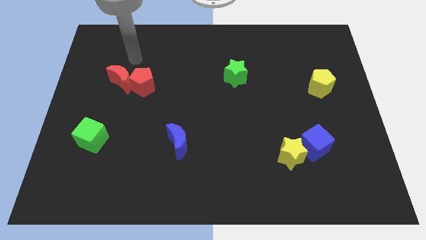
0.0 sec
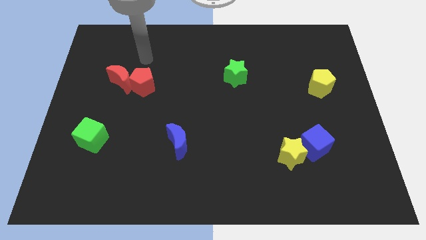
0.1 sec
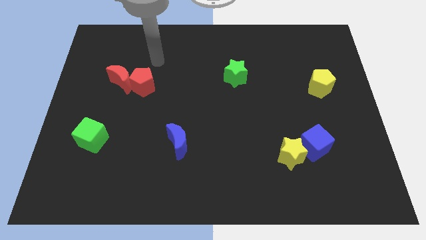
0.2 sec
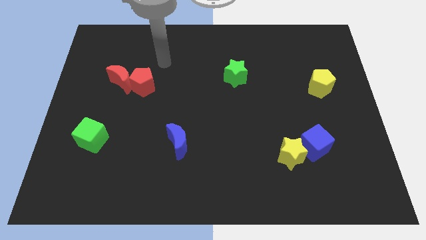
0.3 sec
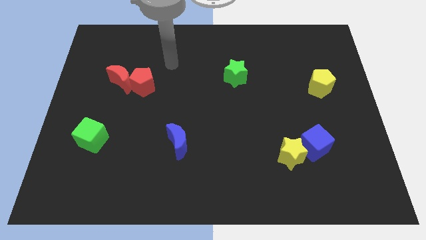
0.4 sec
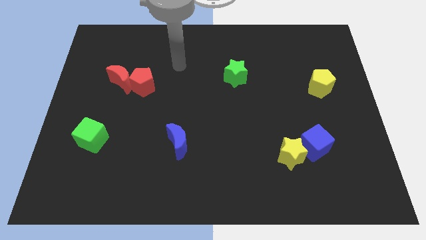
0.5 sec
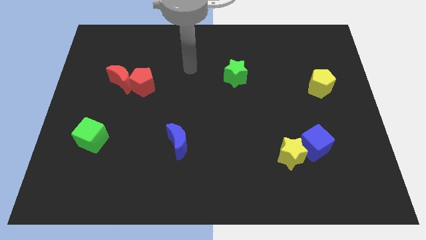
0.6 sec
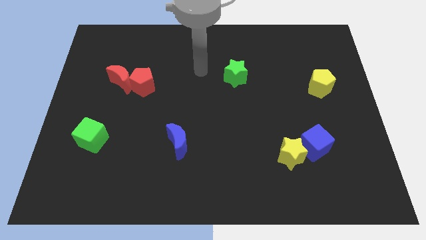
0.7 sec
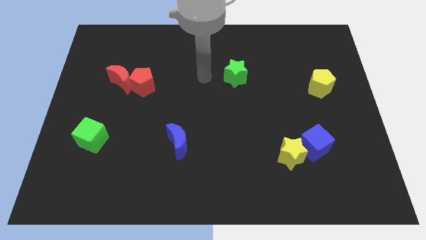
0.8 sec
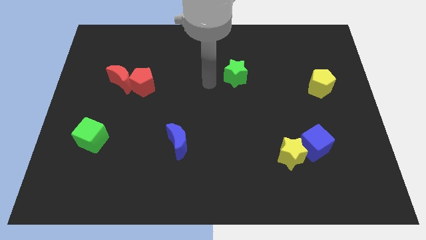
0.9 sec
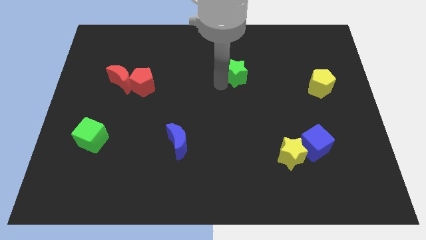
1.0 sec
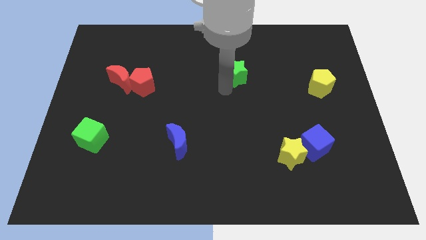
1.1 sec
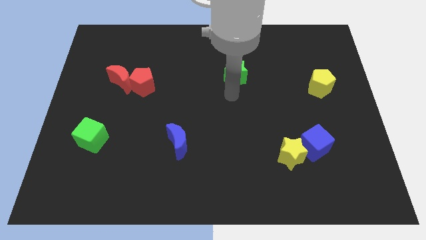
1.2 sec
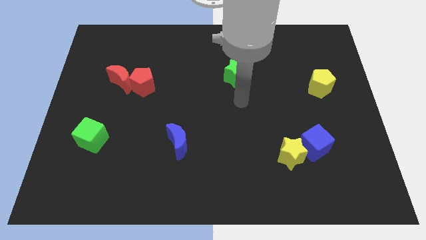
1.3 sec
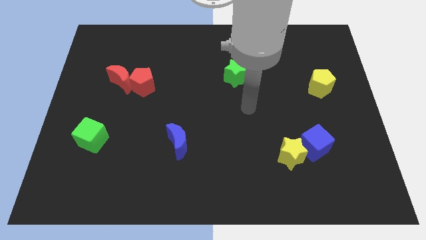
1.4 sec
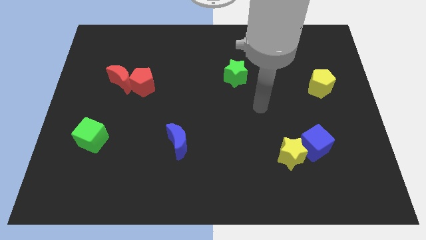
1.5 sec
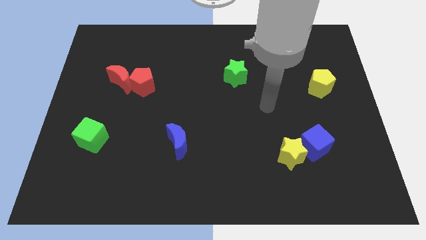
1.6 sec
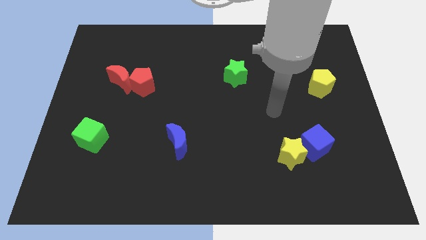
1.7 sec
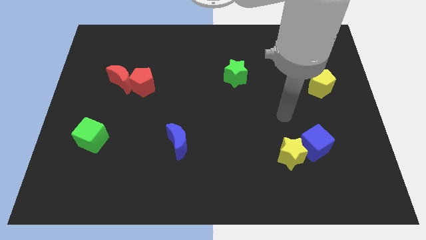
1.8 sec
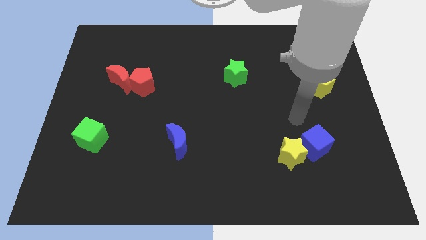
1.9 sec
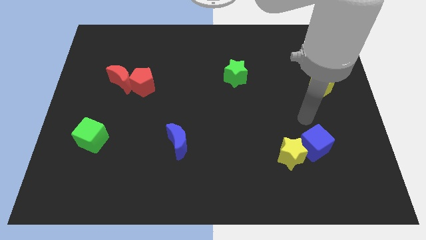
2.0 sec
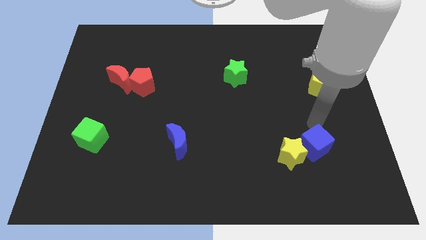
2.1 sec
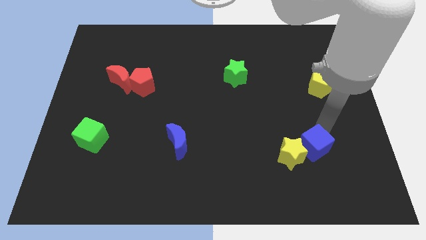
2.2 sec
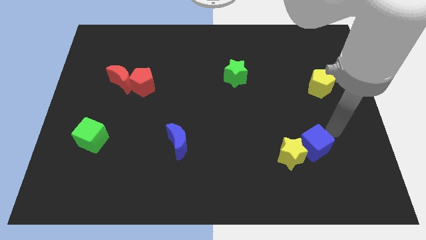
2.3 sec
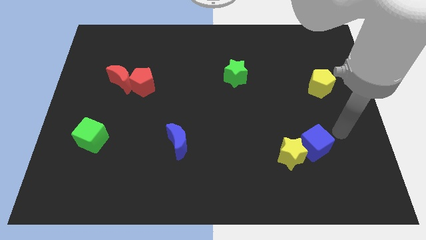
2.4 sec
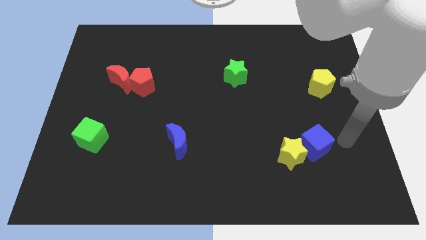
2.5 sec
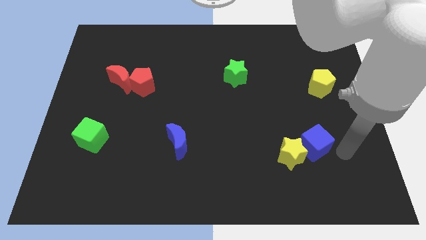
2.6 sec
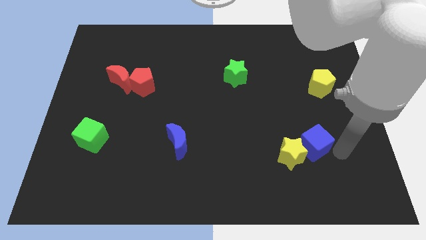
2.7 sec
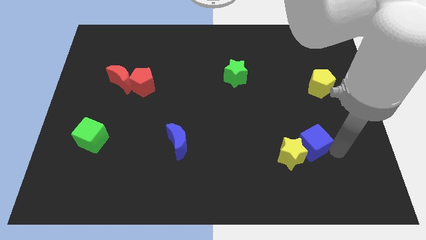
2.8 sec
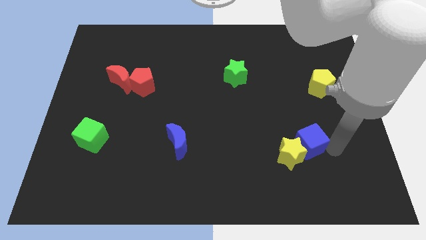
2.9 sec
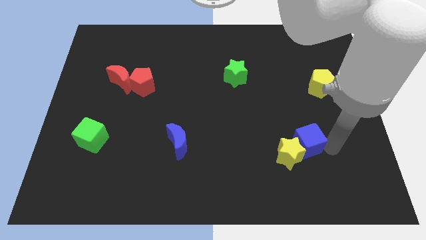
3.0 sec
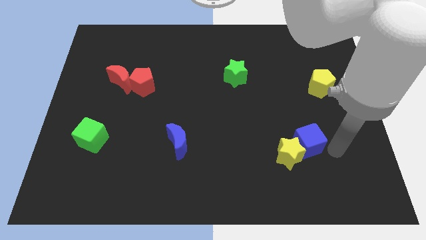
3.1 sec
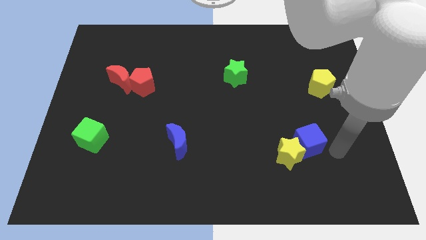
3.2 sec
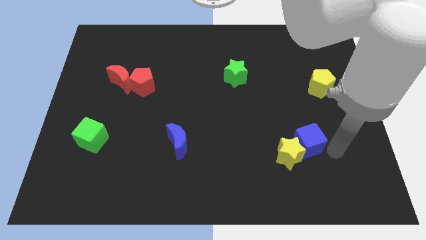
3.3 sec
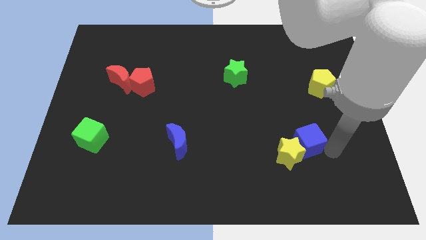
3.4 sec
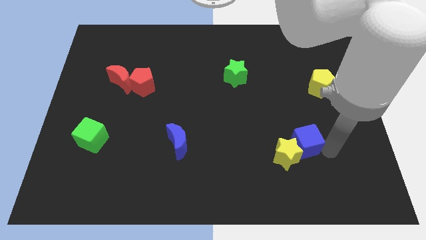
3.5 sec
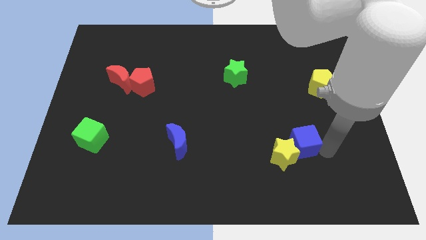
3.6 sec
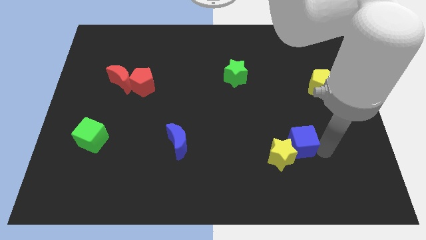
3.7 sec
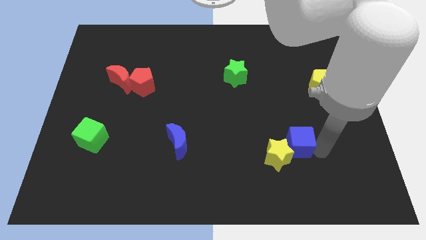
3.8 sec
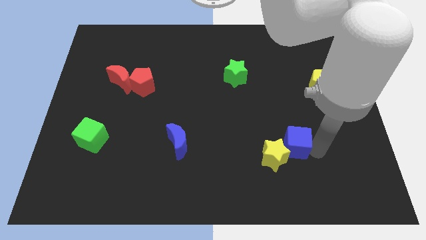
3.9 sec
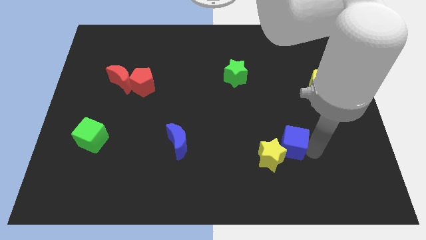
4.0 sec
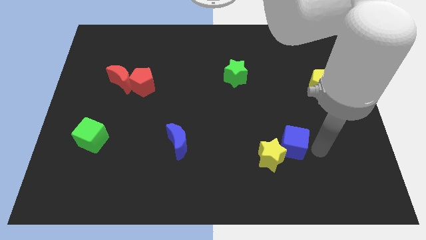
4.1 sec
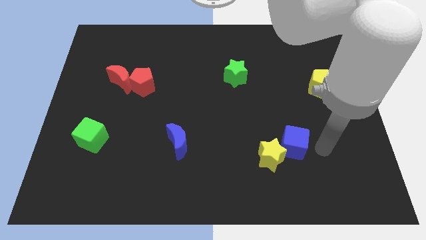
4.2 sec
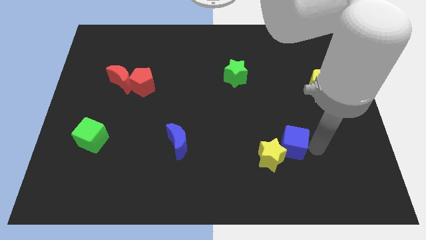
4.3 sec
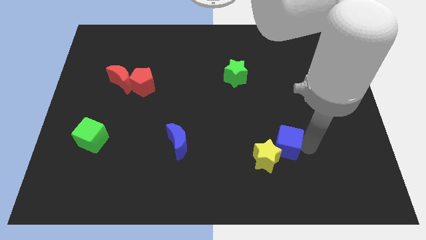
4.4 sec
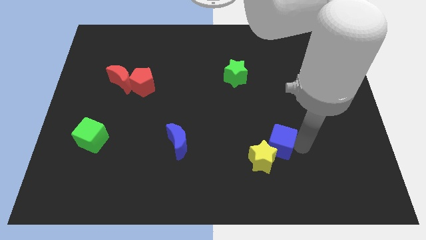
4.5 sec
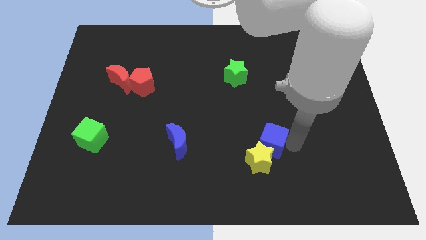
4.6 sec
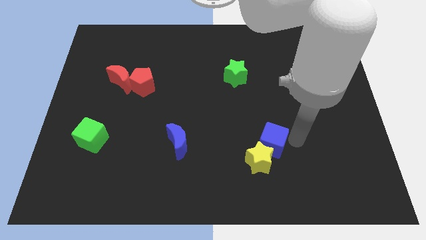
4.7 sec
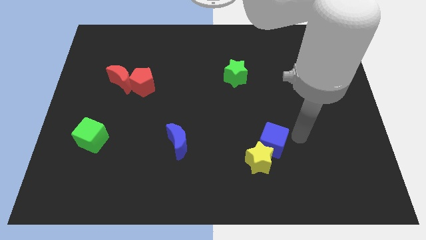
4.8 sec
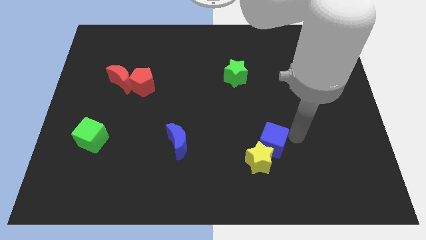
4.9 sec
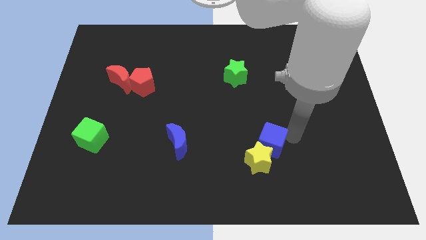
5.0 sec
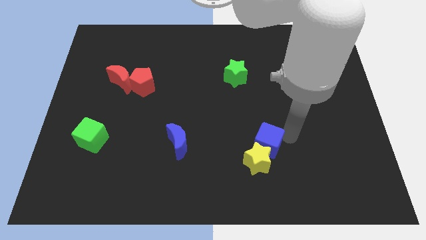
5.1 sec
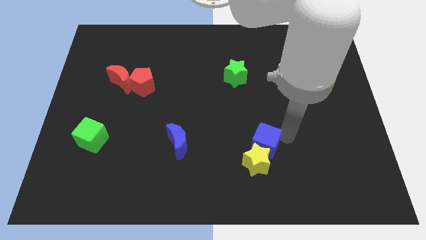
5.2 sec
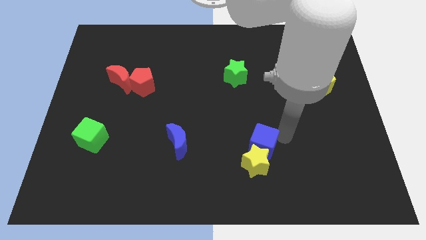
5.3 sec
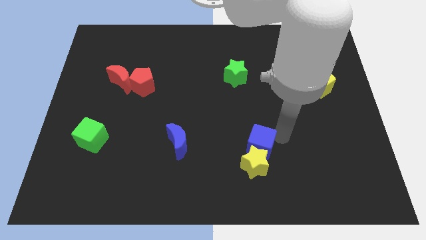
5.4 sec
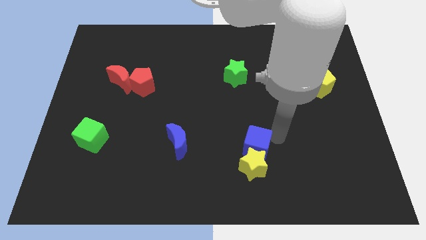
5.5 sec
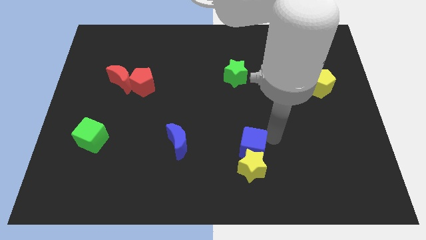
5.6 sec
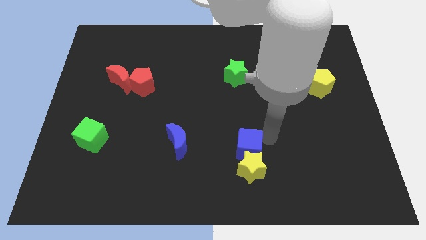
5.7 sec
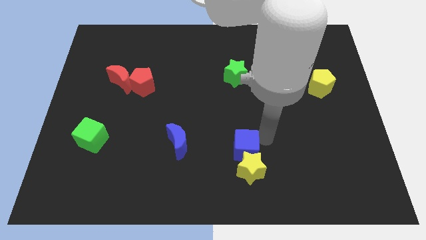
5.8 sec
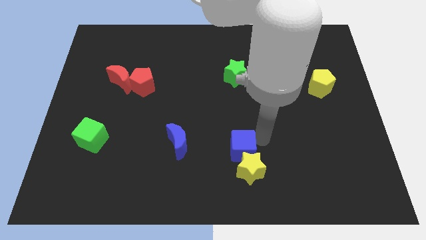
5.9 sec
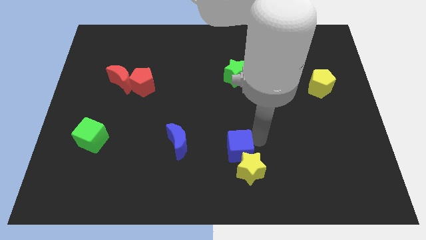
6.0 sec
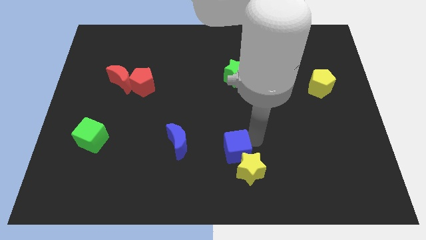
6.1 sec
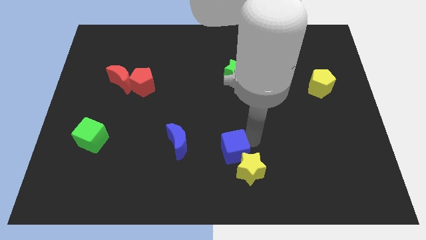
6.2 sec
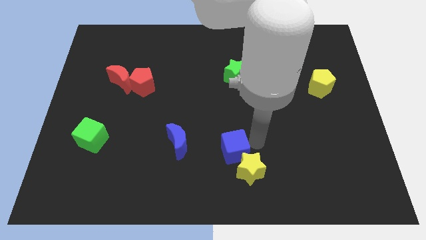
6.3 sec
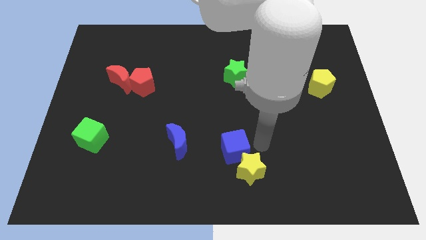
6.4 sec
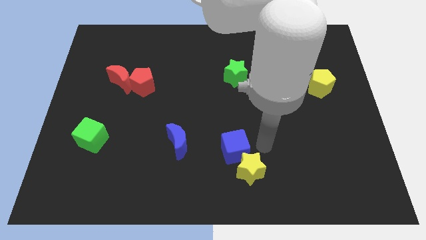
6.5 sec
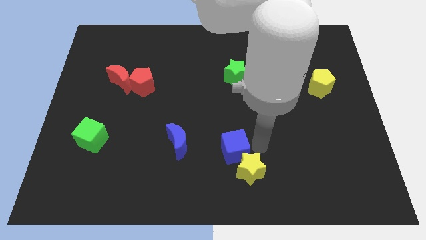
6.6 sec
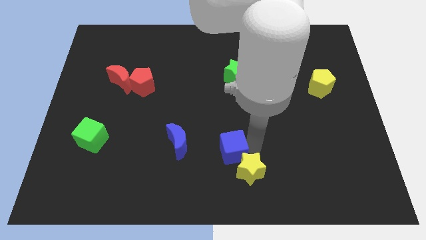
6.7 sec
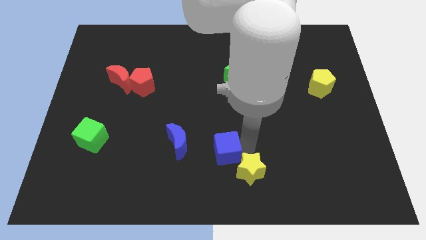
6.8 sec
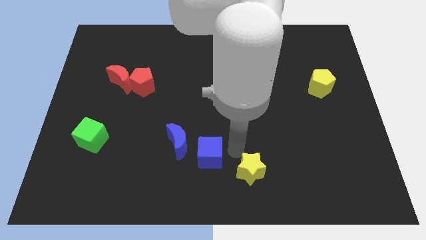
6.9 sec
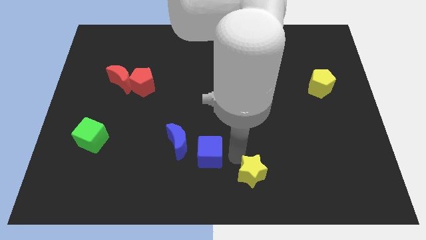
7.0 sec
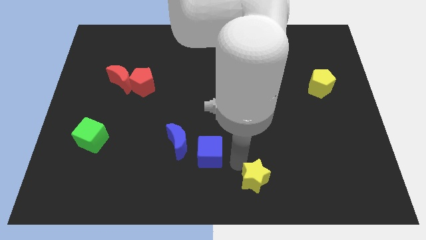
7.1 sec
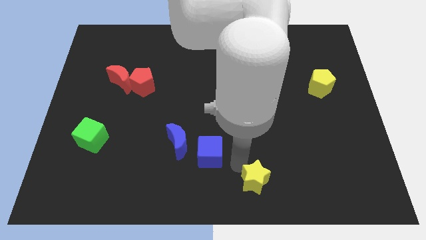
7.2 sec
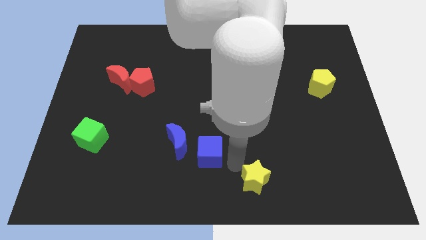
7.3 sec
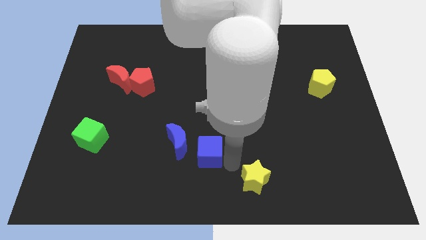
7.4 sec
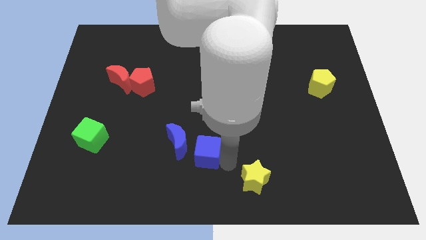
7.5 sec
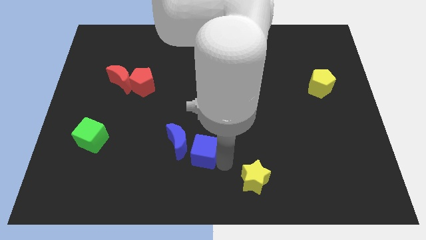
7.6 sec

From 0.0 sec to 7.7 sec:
put the blue cube next to the blue moon

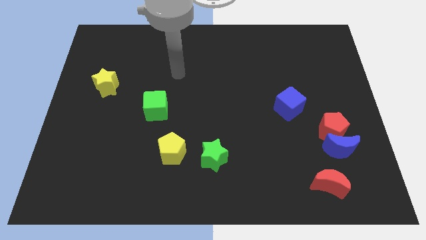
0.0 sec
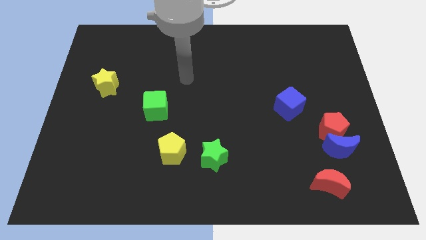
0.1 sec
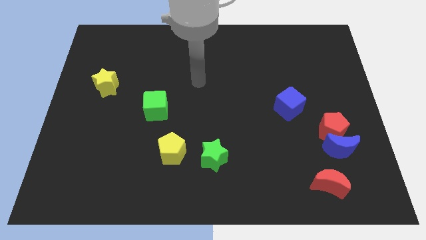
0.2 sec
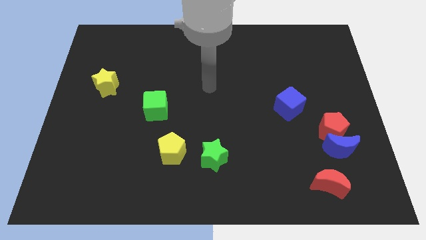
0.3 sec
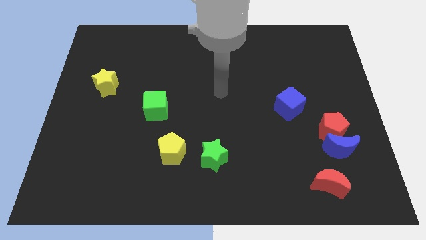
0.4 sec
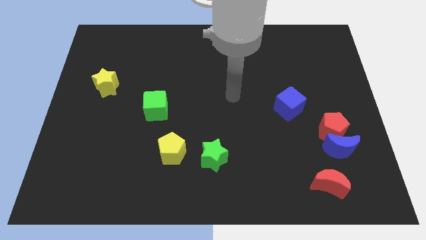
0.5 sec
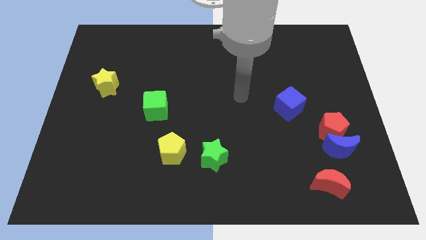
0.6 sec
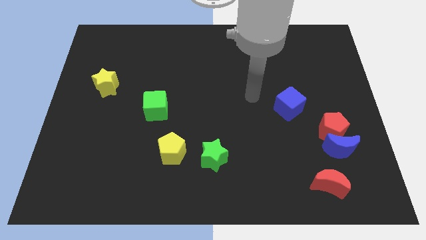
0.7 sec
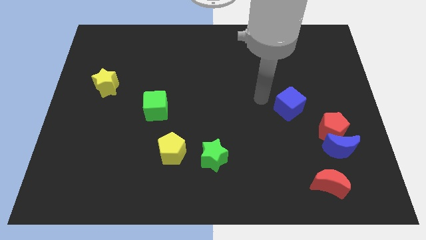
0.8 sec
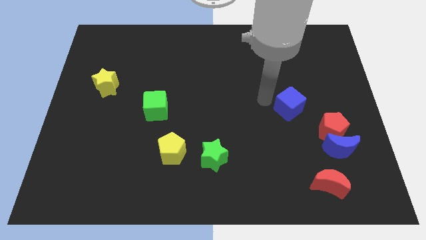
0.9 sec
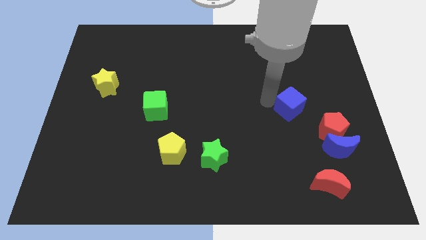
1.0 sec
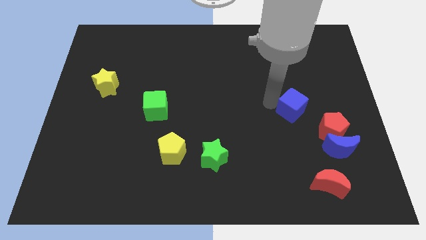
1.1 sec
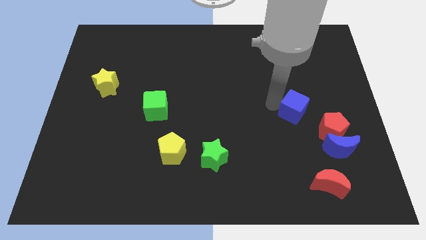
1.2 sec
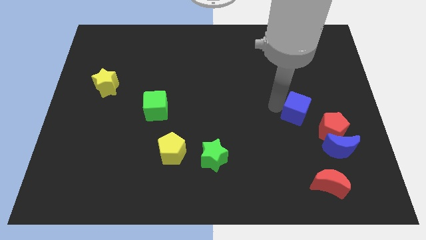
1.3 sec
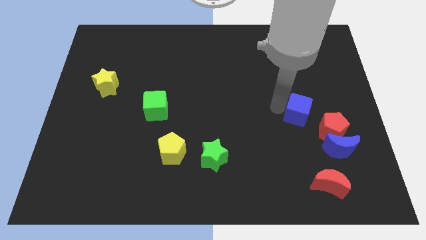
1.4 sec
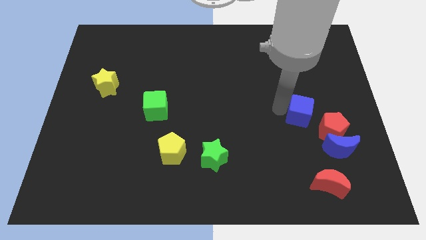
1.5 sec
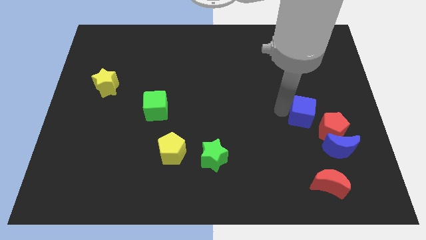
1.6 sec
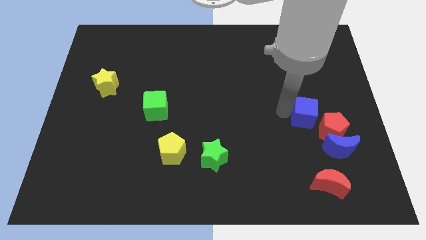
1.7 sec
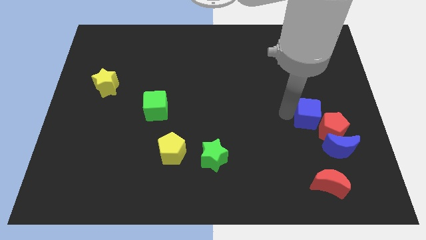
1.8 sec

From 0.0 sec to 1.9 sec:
move the blue cube towards the red pentagon
